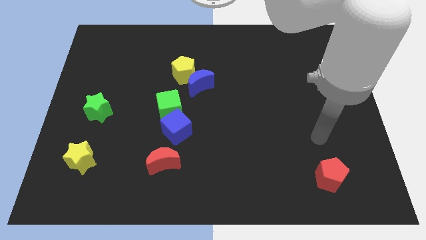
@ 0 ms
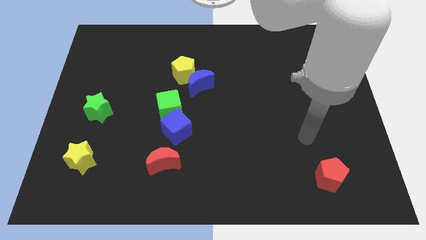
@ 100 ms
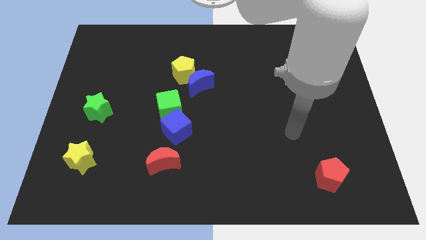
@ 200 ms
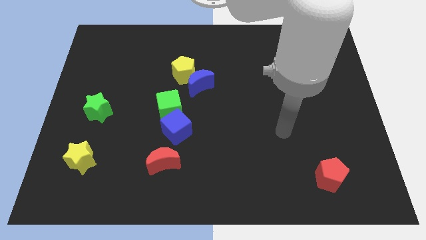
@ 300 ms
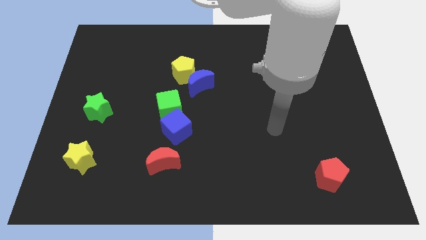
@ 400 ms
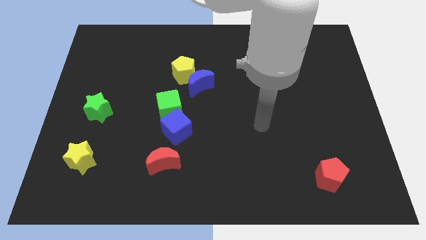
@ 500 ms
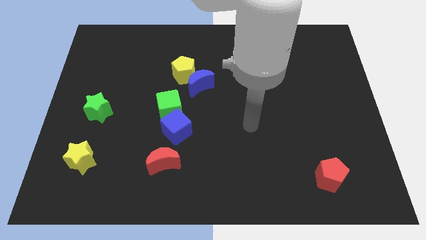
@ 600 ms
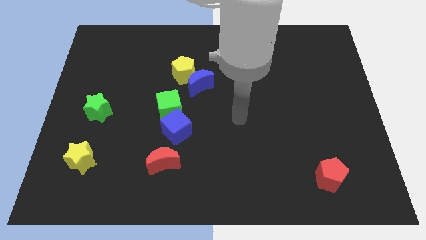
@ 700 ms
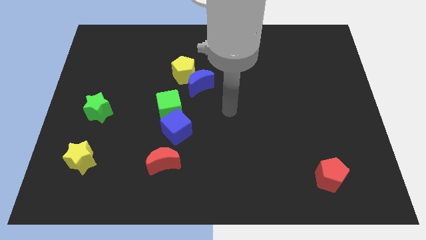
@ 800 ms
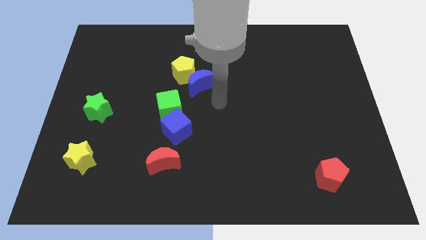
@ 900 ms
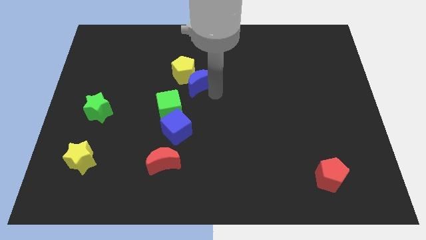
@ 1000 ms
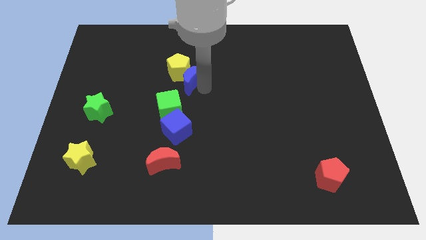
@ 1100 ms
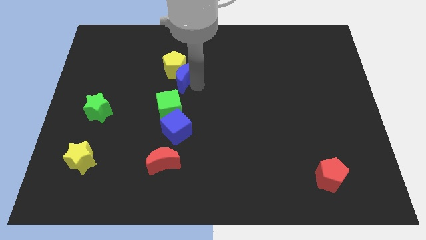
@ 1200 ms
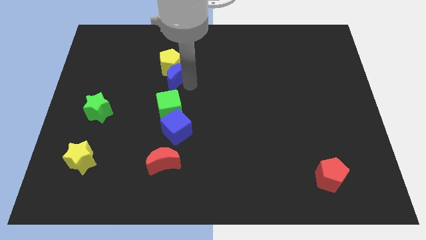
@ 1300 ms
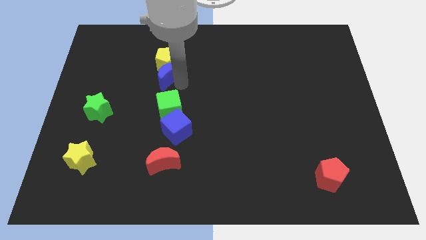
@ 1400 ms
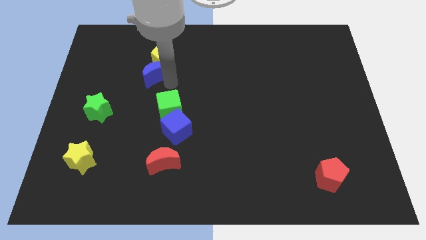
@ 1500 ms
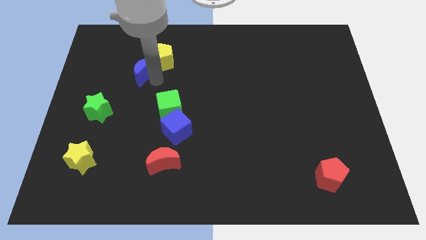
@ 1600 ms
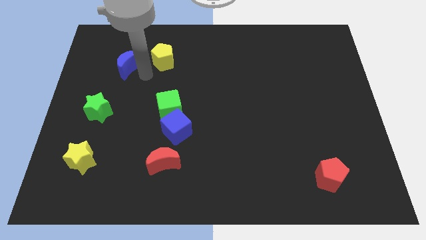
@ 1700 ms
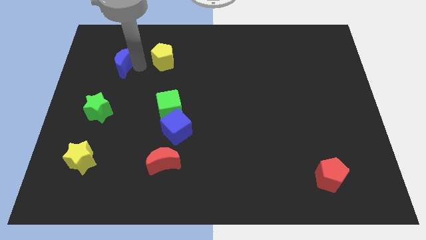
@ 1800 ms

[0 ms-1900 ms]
separate the yellow pentagon from the blue moon

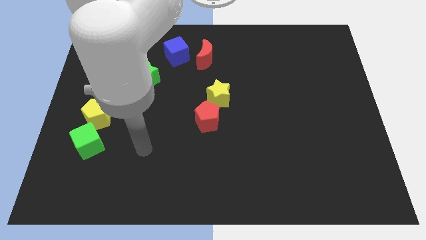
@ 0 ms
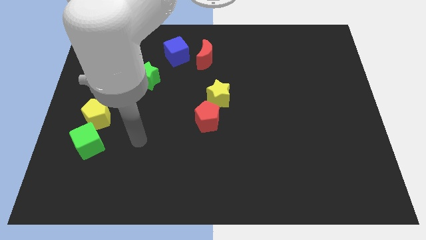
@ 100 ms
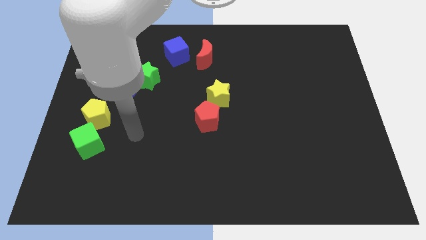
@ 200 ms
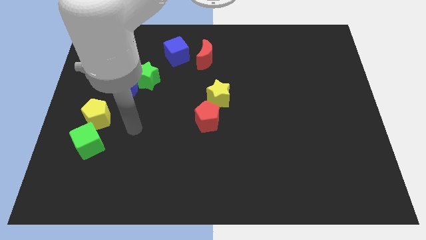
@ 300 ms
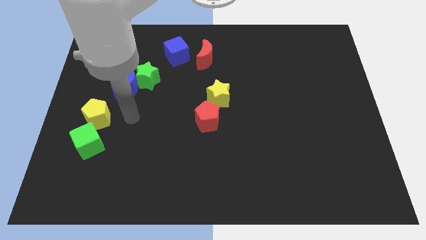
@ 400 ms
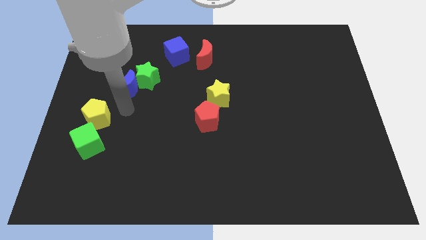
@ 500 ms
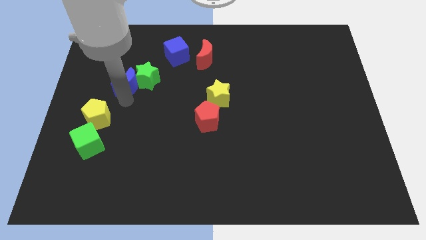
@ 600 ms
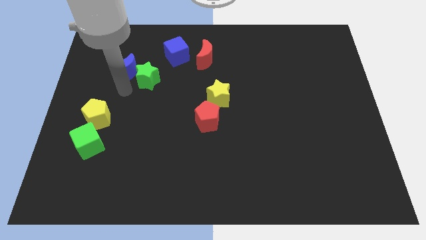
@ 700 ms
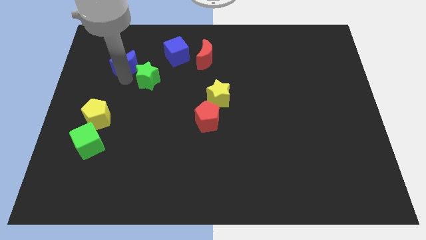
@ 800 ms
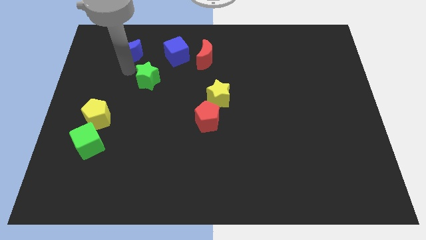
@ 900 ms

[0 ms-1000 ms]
move the green star away from the blue moon

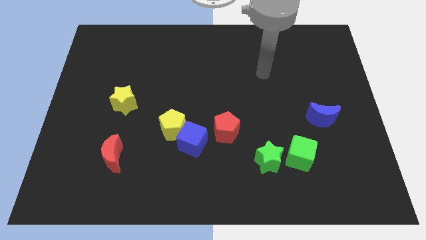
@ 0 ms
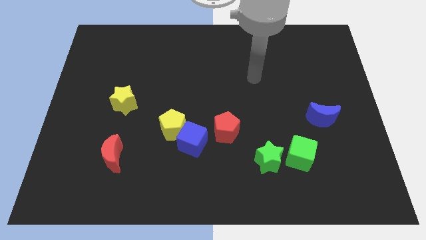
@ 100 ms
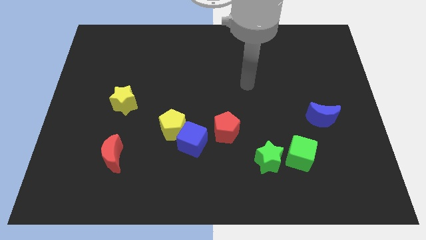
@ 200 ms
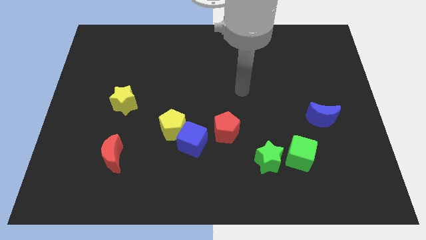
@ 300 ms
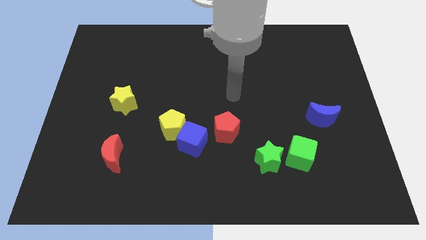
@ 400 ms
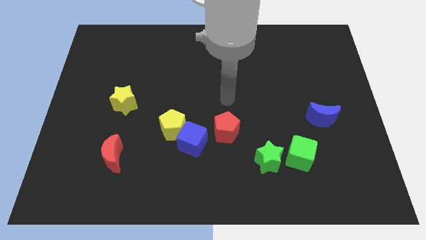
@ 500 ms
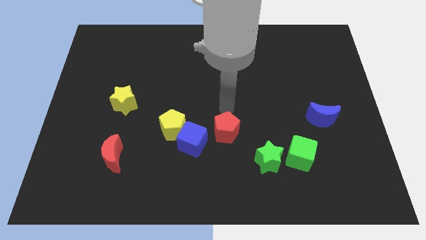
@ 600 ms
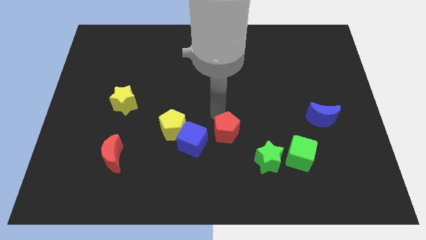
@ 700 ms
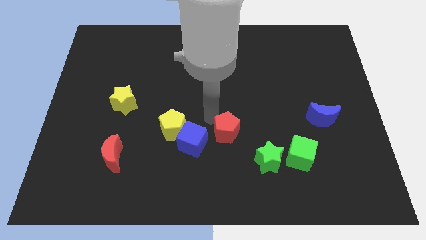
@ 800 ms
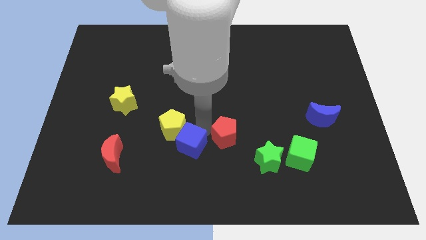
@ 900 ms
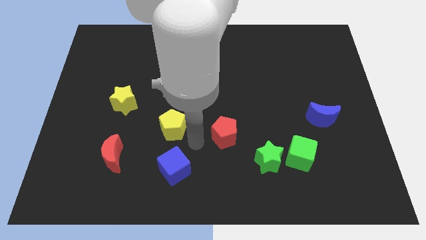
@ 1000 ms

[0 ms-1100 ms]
move the yellow pentagon away from the blue cube

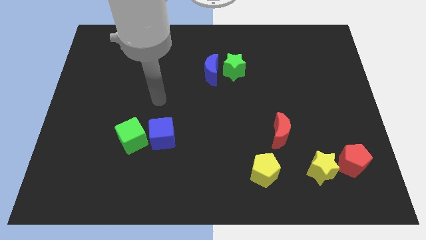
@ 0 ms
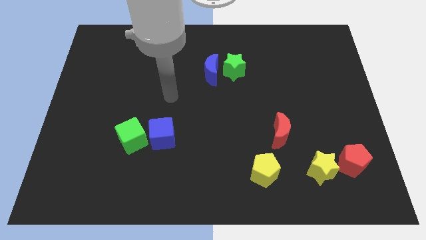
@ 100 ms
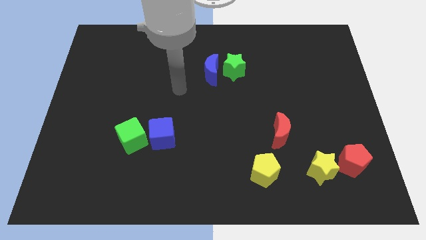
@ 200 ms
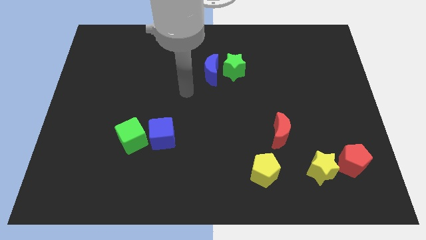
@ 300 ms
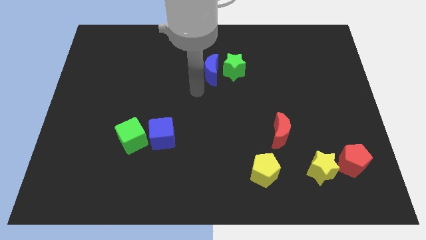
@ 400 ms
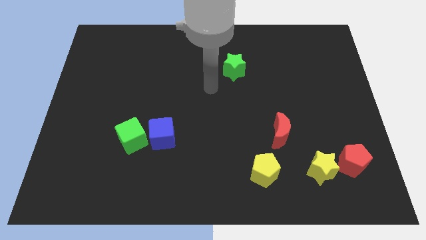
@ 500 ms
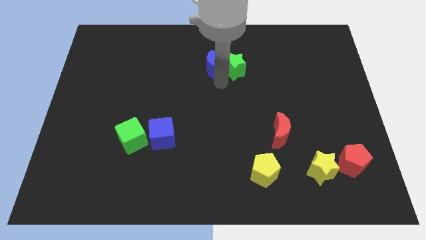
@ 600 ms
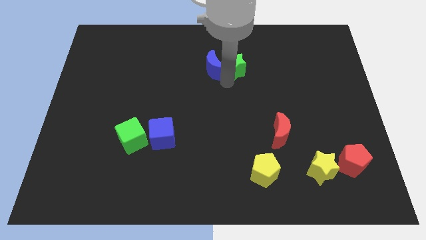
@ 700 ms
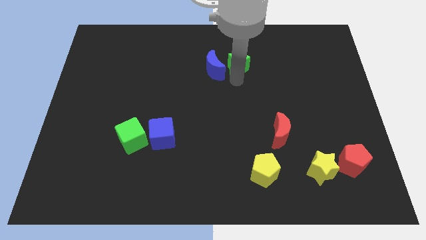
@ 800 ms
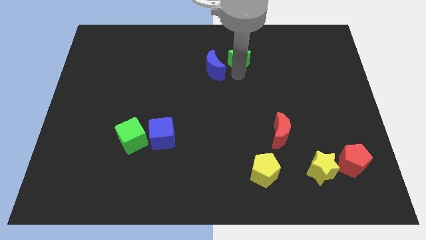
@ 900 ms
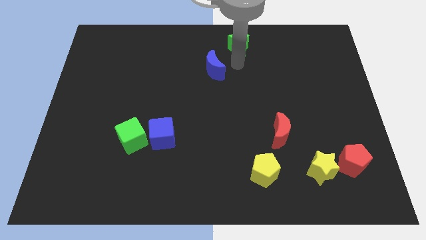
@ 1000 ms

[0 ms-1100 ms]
pull the blue moon apart from the green star

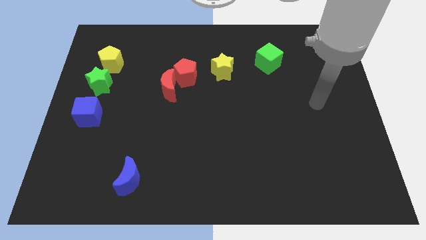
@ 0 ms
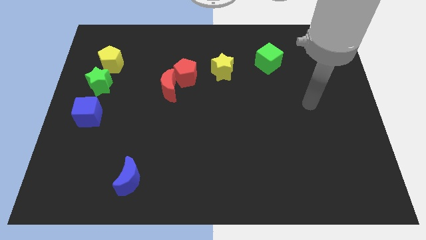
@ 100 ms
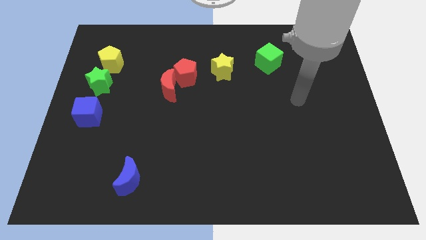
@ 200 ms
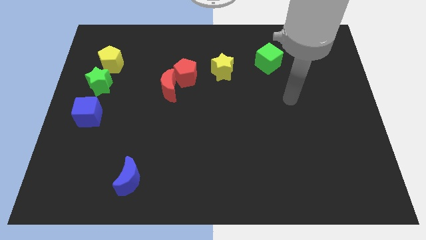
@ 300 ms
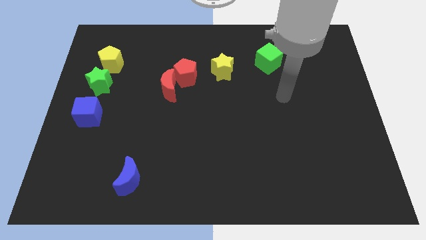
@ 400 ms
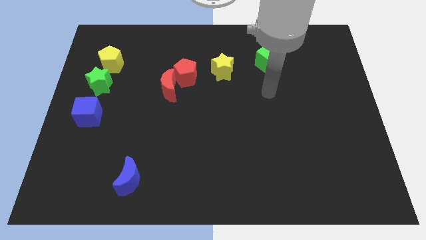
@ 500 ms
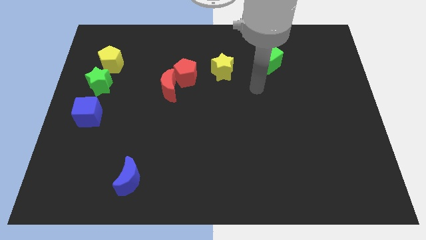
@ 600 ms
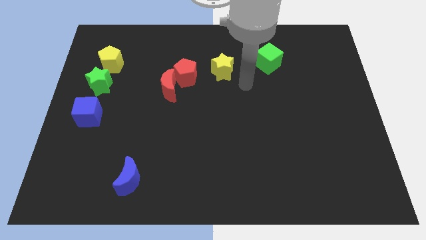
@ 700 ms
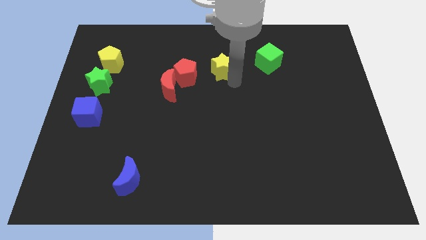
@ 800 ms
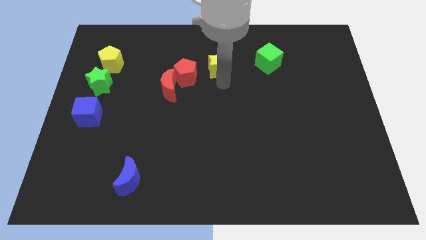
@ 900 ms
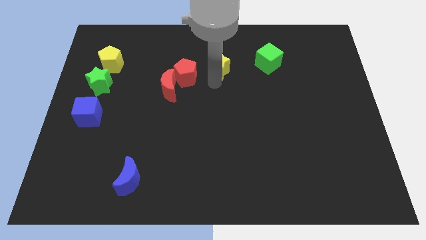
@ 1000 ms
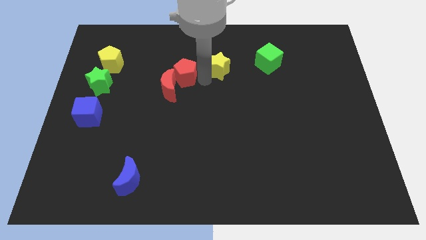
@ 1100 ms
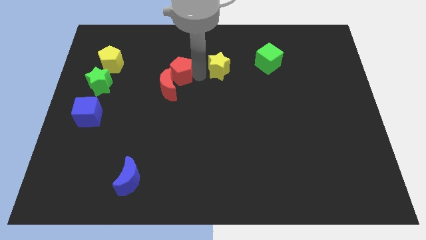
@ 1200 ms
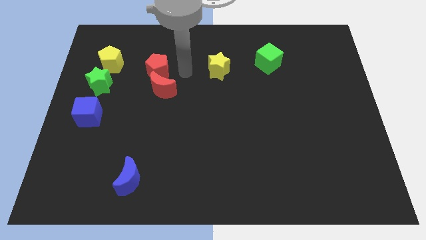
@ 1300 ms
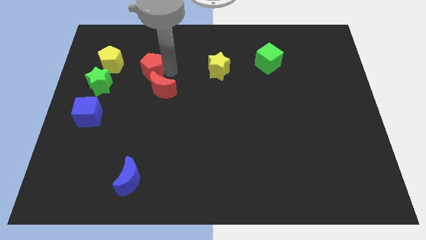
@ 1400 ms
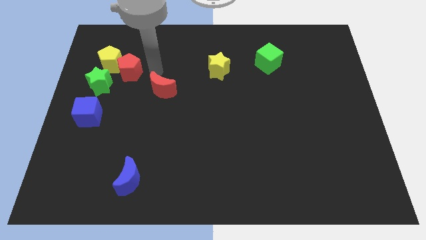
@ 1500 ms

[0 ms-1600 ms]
separate the red moon from the red pentagon

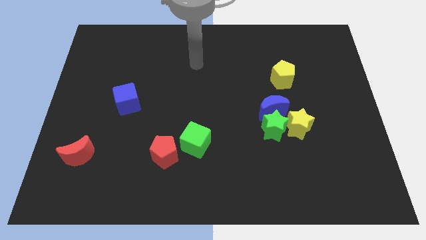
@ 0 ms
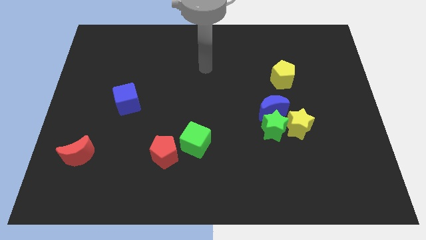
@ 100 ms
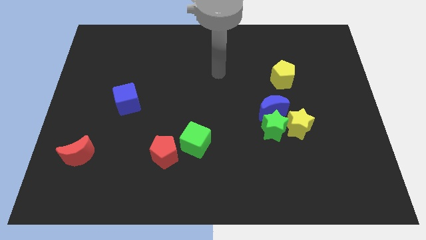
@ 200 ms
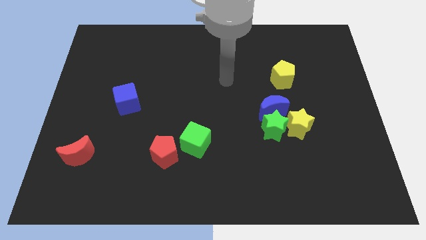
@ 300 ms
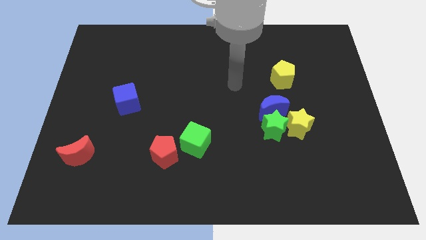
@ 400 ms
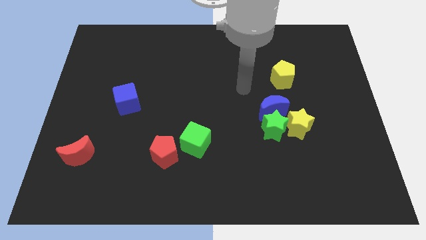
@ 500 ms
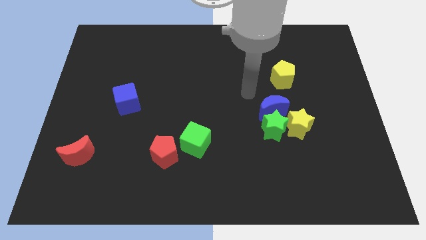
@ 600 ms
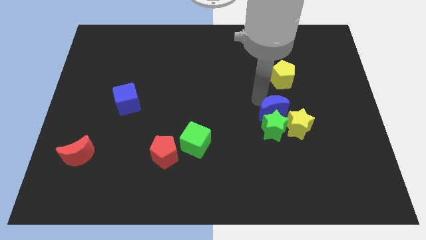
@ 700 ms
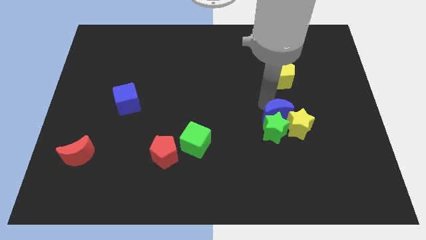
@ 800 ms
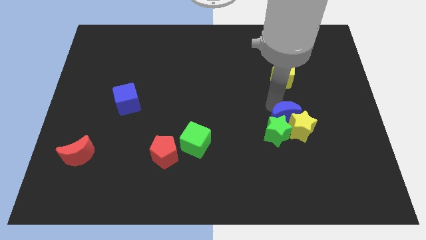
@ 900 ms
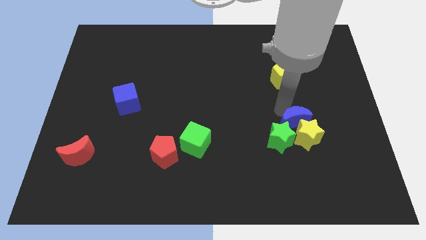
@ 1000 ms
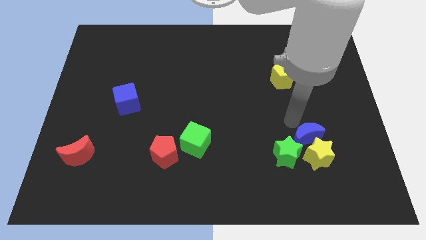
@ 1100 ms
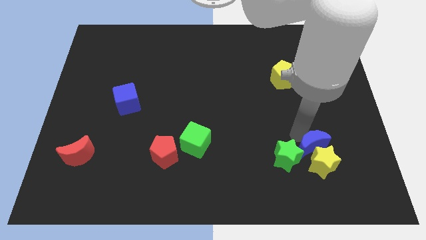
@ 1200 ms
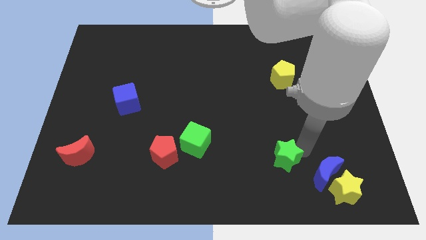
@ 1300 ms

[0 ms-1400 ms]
separate the green star from the blue moon and yellow star

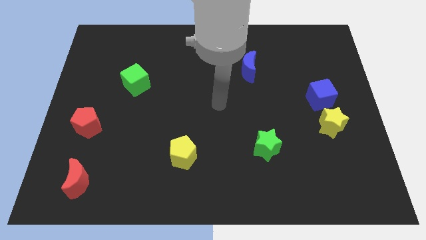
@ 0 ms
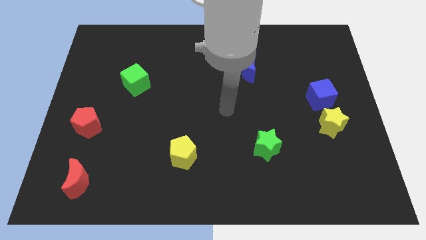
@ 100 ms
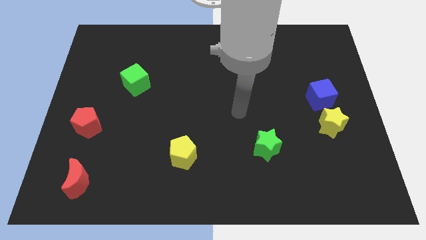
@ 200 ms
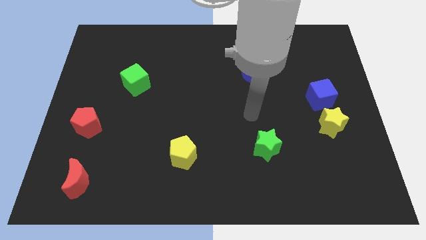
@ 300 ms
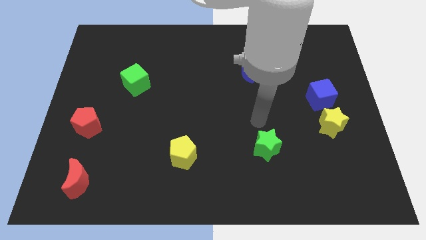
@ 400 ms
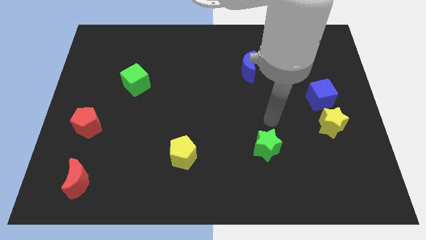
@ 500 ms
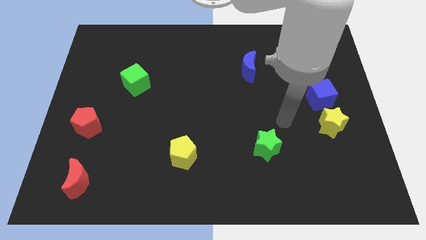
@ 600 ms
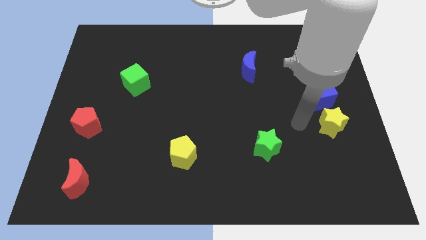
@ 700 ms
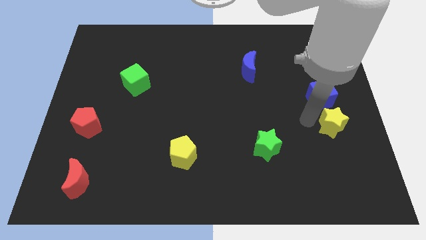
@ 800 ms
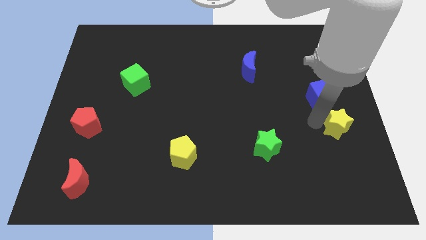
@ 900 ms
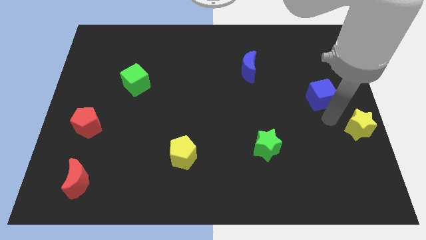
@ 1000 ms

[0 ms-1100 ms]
move the blue cube away from the yellow star
